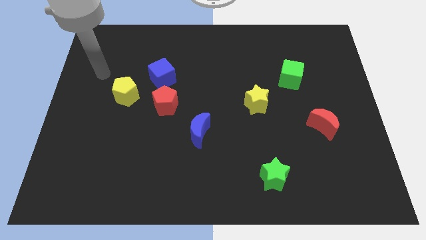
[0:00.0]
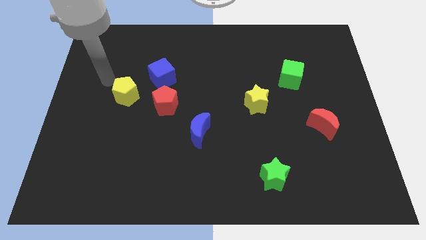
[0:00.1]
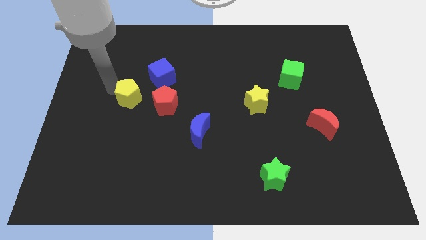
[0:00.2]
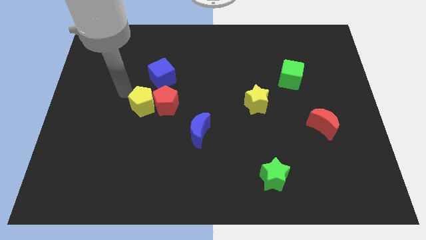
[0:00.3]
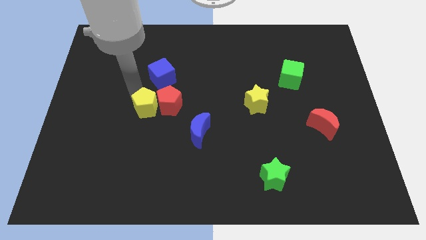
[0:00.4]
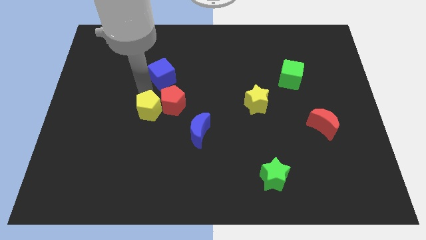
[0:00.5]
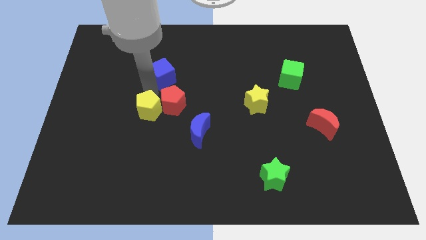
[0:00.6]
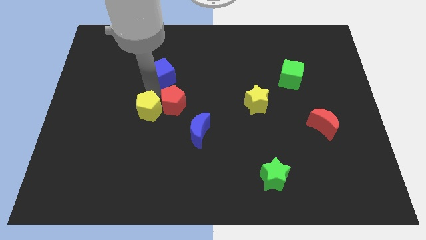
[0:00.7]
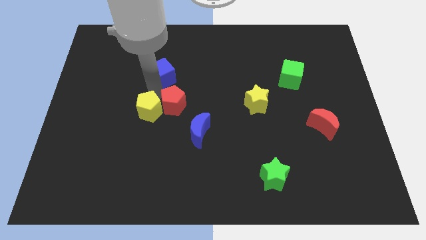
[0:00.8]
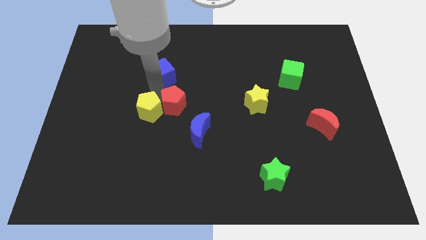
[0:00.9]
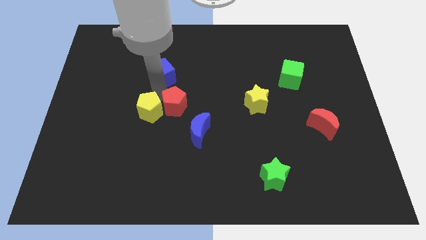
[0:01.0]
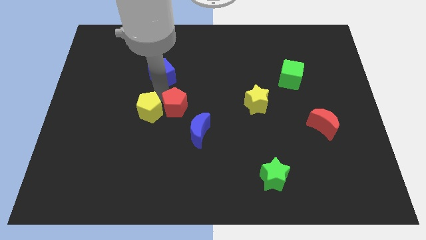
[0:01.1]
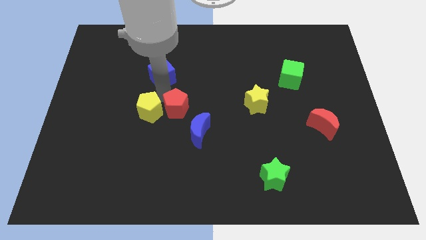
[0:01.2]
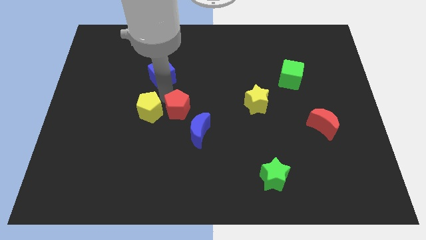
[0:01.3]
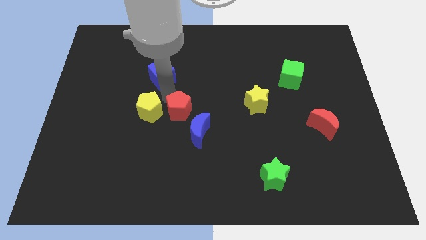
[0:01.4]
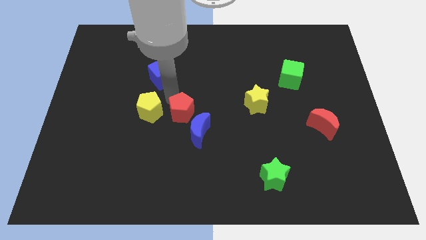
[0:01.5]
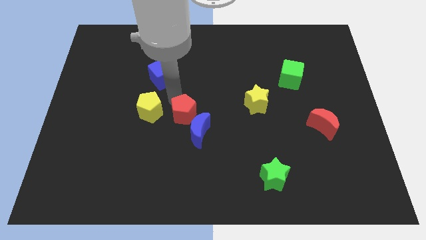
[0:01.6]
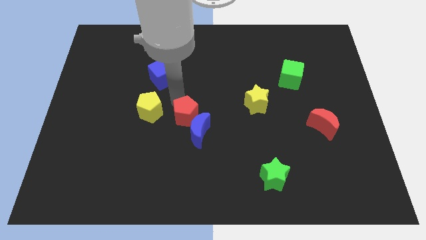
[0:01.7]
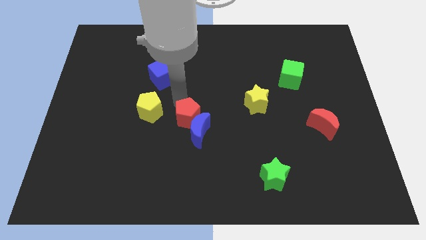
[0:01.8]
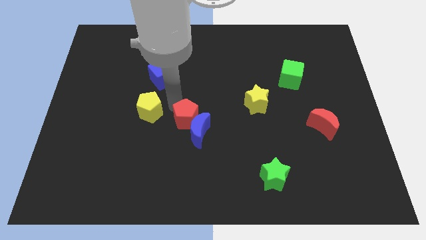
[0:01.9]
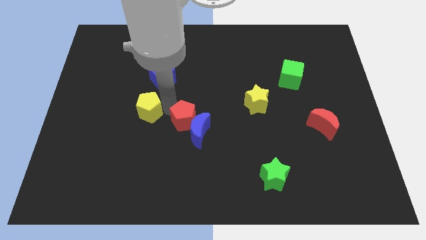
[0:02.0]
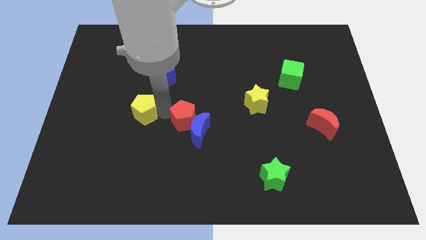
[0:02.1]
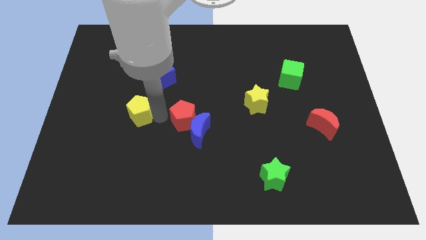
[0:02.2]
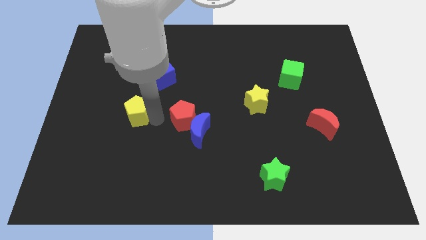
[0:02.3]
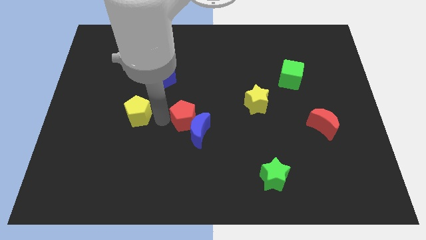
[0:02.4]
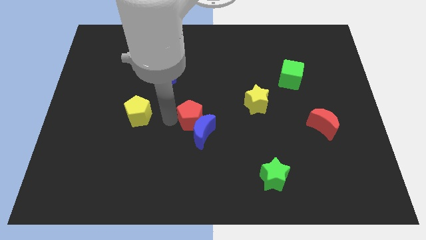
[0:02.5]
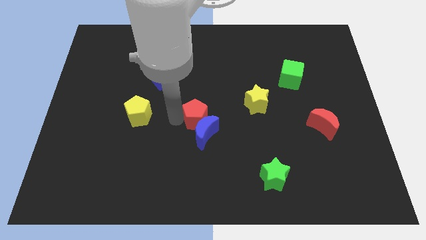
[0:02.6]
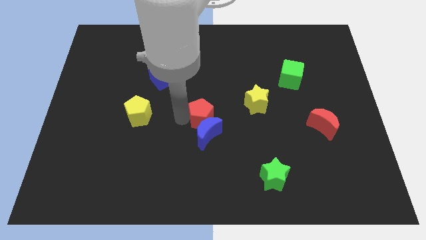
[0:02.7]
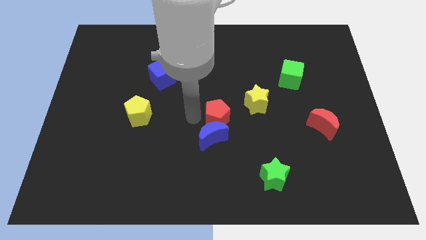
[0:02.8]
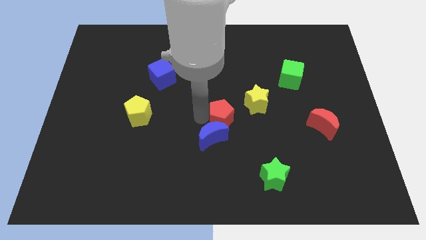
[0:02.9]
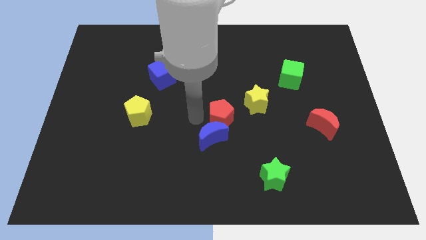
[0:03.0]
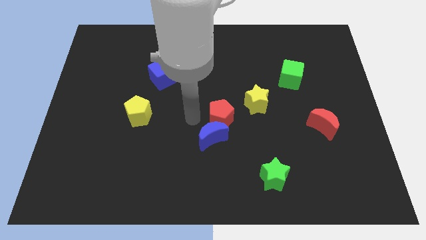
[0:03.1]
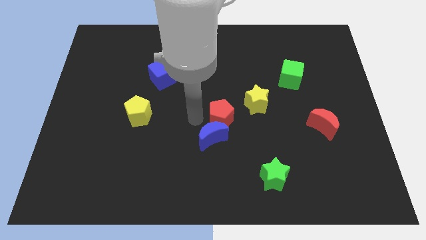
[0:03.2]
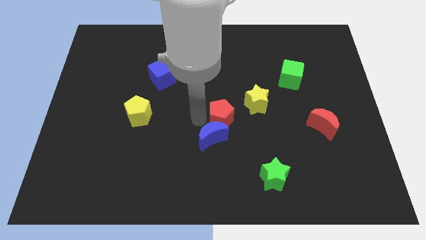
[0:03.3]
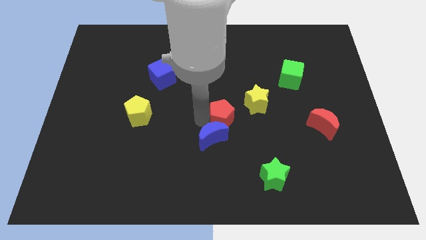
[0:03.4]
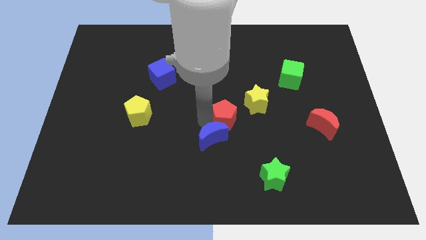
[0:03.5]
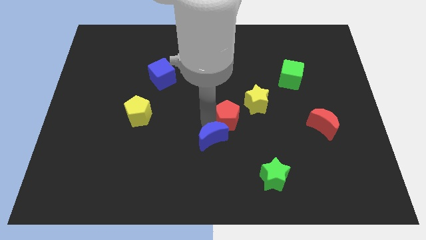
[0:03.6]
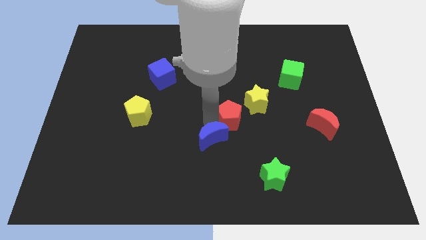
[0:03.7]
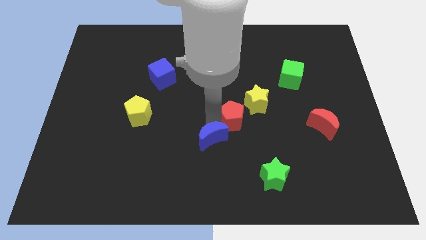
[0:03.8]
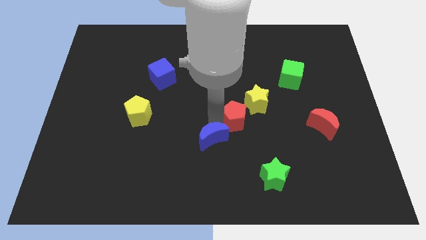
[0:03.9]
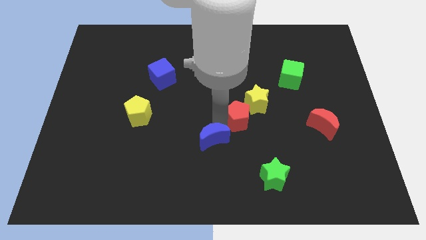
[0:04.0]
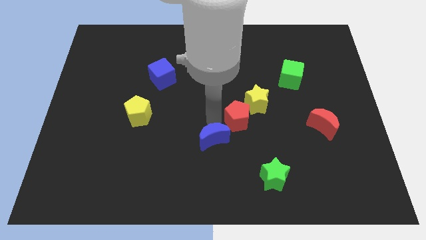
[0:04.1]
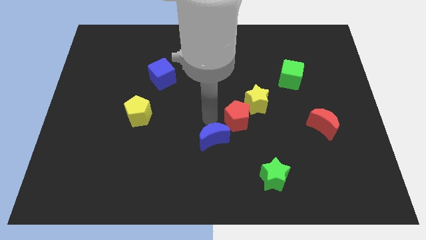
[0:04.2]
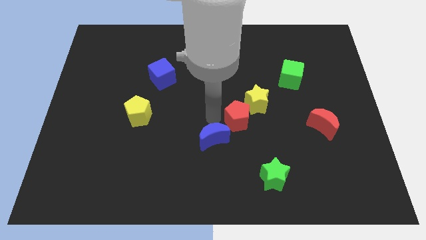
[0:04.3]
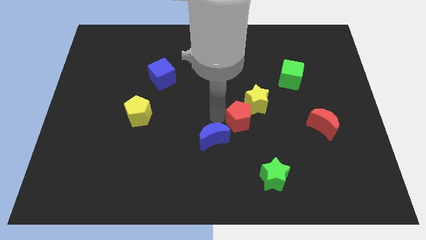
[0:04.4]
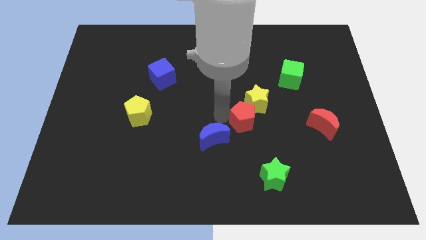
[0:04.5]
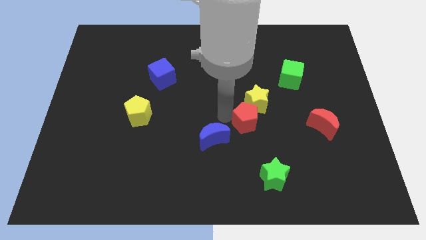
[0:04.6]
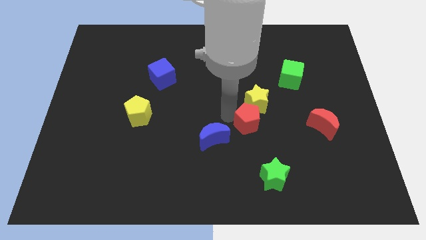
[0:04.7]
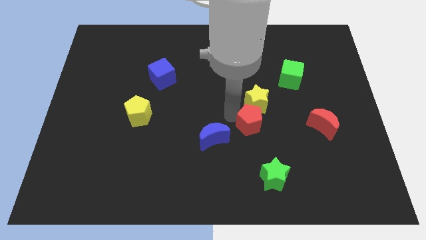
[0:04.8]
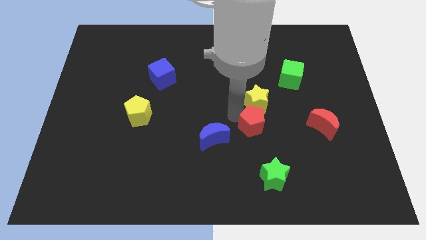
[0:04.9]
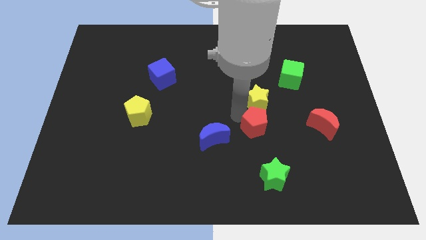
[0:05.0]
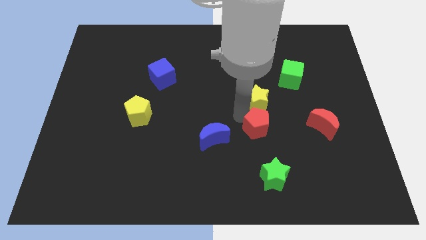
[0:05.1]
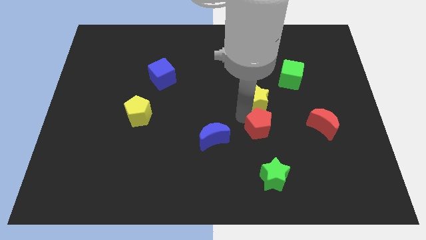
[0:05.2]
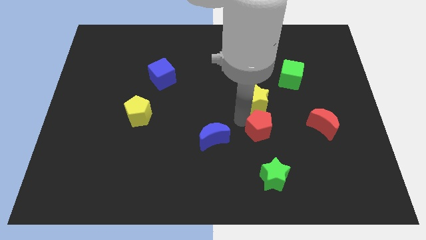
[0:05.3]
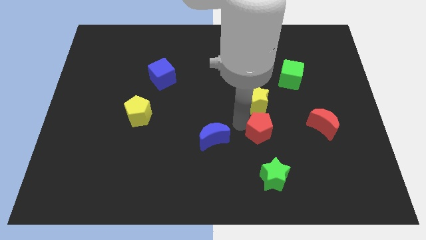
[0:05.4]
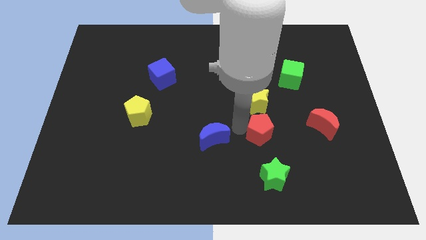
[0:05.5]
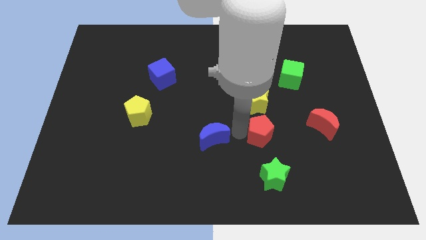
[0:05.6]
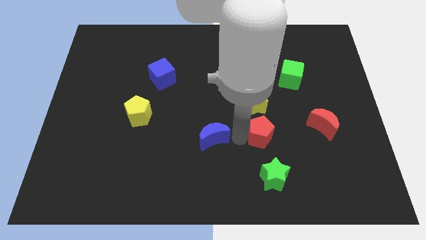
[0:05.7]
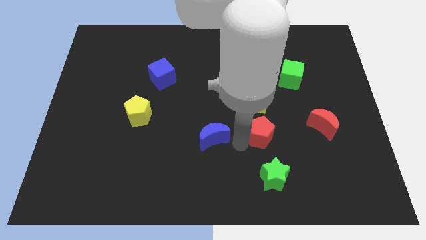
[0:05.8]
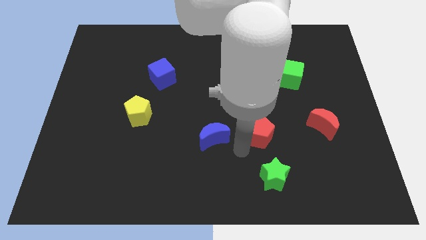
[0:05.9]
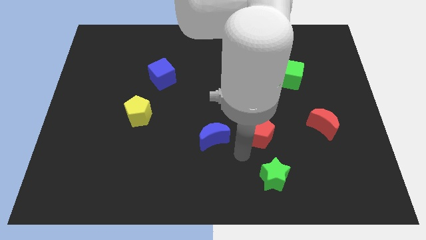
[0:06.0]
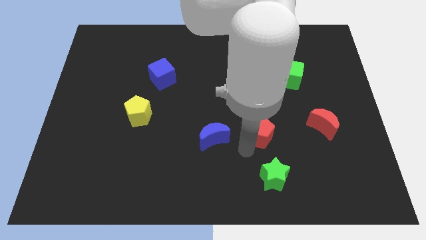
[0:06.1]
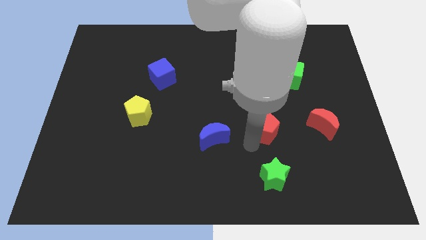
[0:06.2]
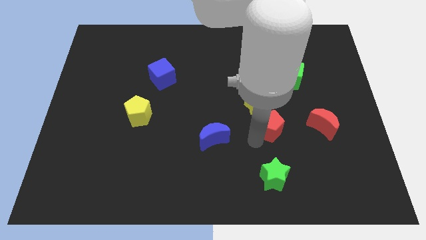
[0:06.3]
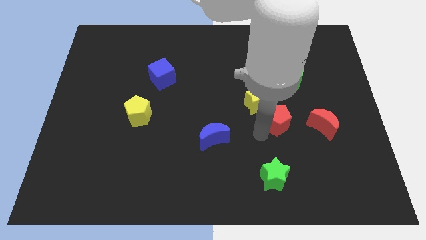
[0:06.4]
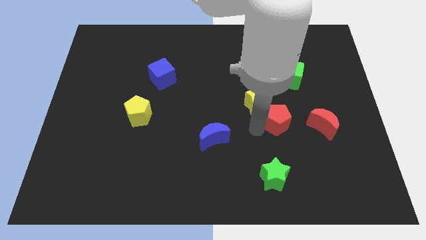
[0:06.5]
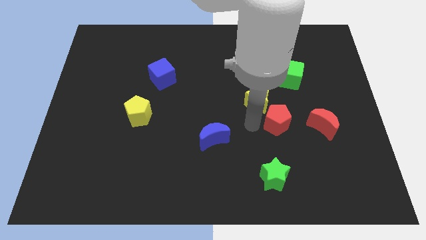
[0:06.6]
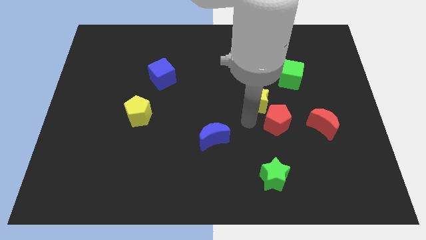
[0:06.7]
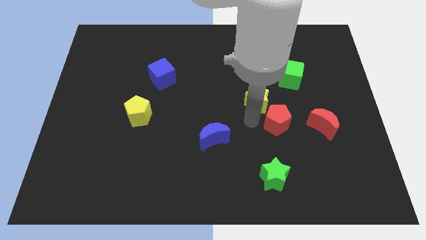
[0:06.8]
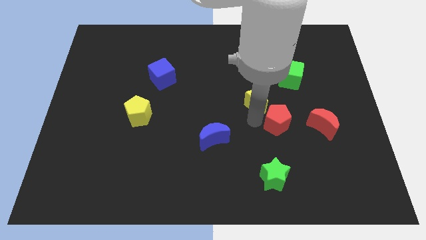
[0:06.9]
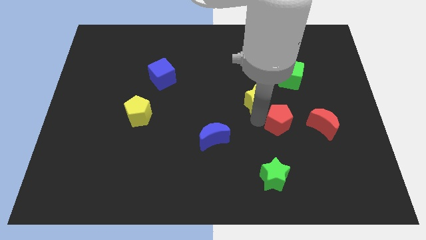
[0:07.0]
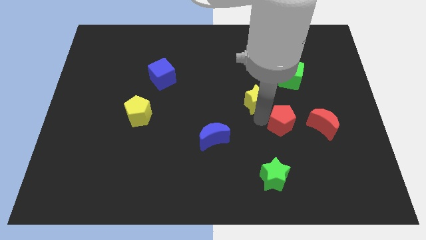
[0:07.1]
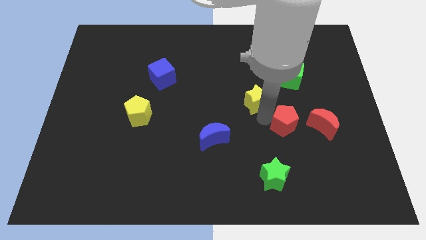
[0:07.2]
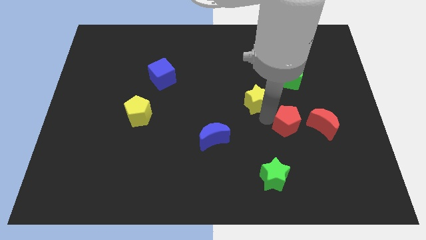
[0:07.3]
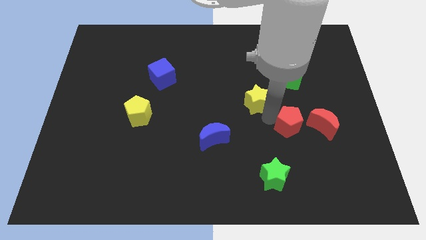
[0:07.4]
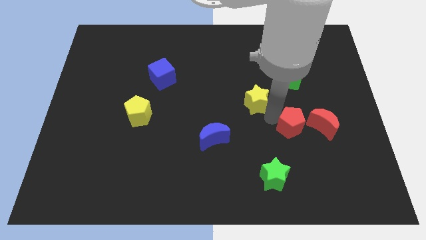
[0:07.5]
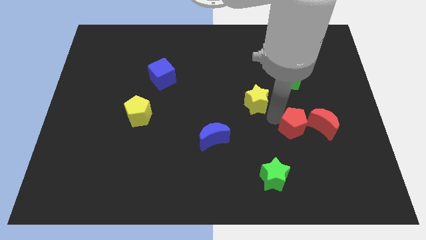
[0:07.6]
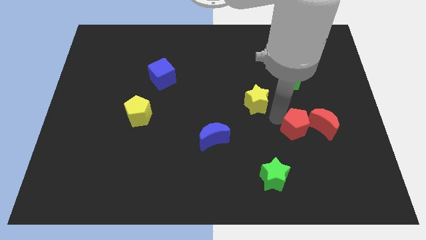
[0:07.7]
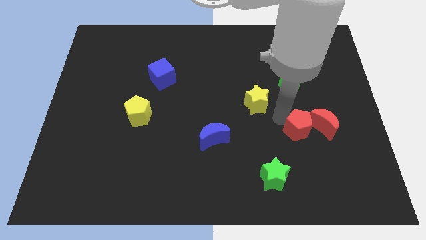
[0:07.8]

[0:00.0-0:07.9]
put the red pentagon next to the red moon
